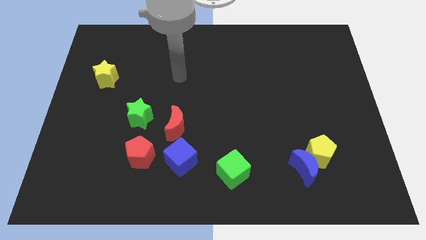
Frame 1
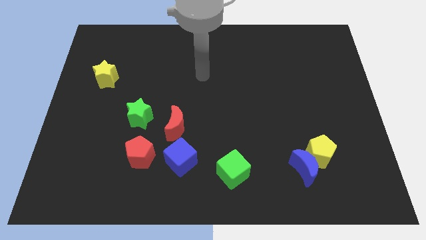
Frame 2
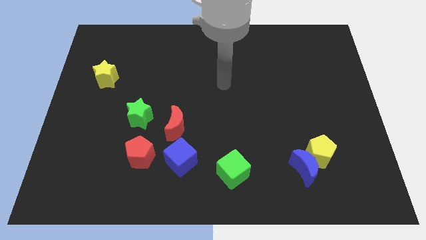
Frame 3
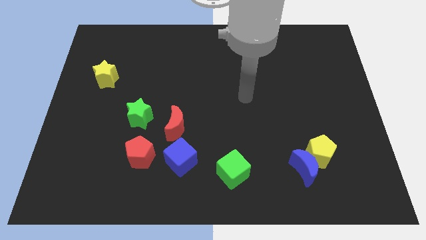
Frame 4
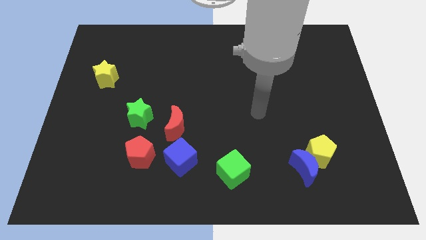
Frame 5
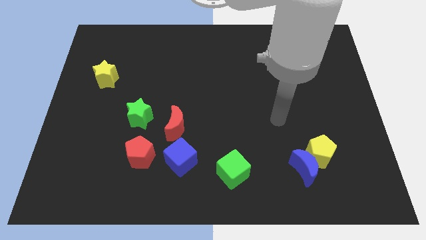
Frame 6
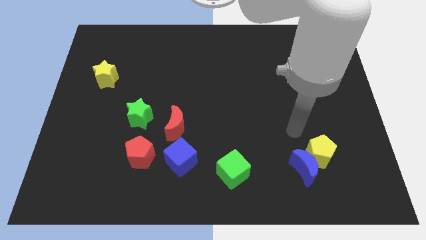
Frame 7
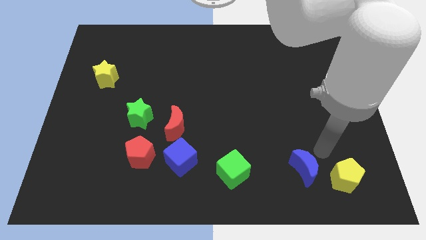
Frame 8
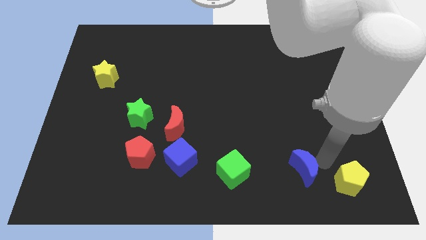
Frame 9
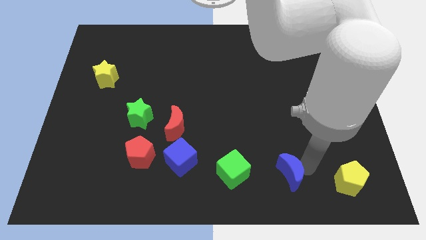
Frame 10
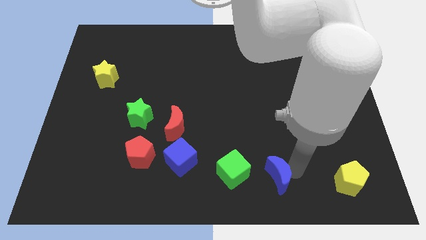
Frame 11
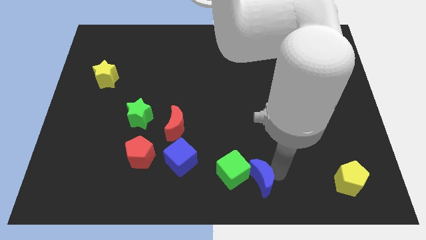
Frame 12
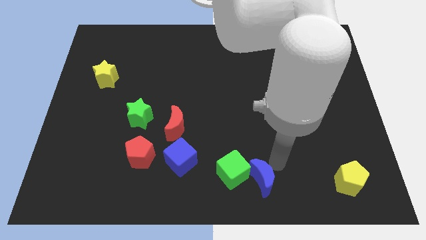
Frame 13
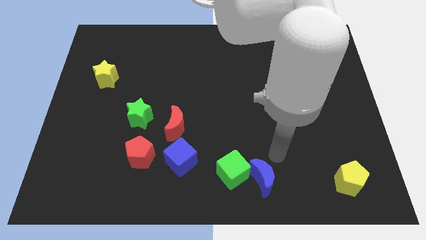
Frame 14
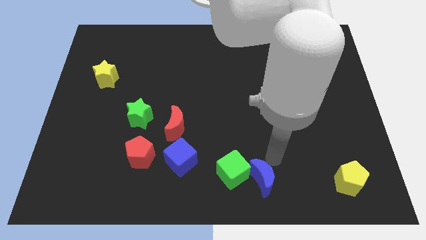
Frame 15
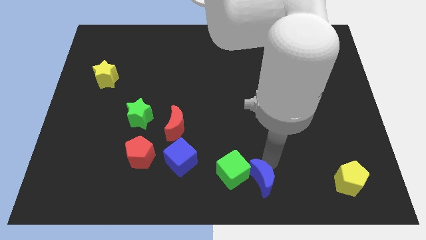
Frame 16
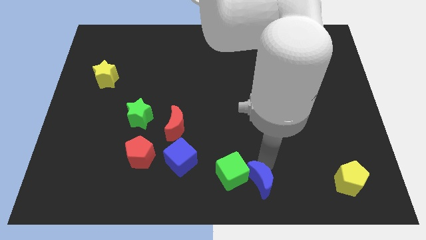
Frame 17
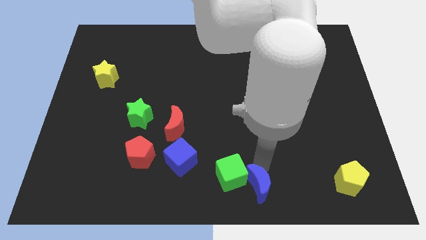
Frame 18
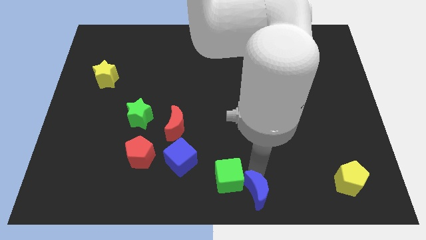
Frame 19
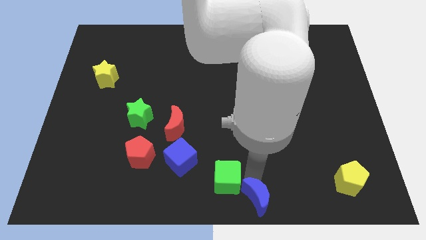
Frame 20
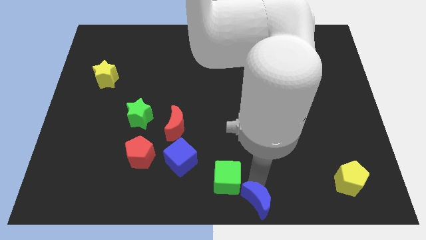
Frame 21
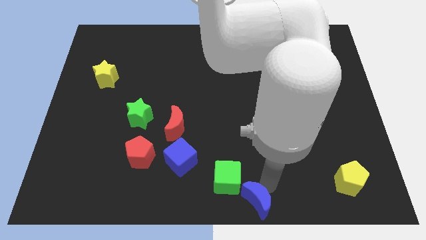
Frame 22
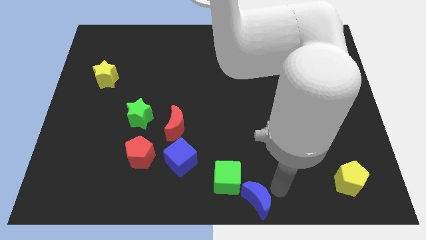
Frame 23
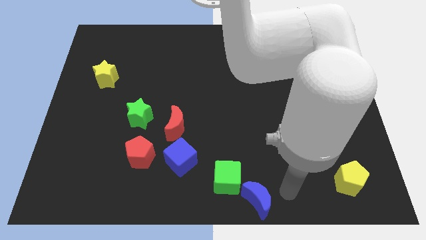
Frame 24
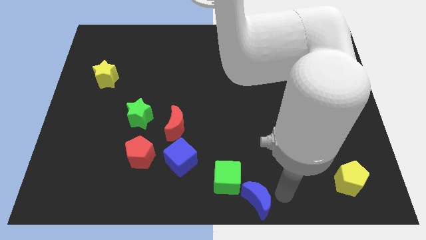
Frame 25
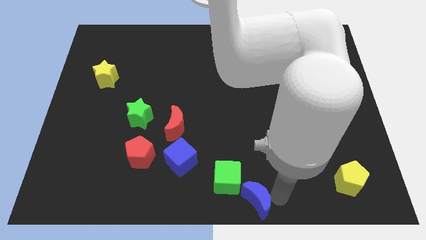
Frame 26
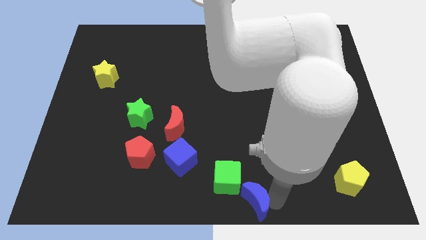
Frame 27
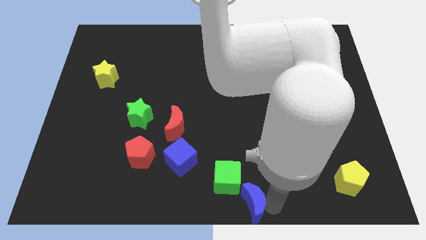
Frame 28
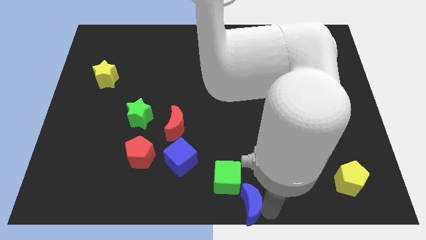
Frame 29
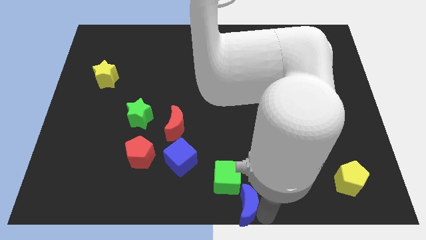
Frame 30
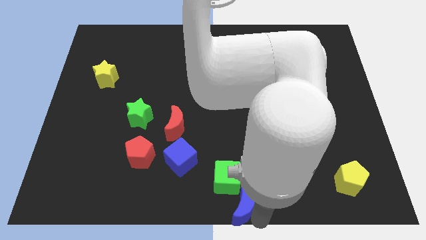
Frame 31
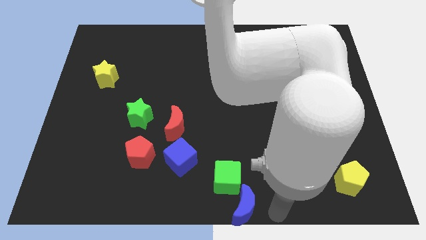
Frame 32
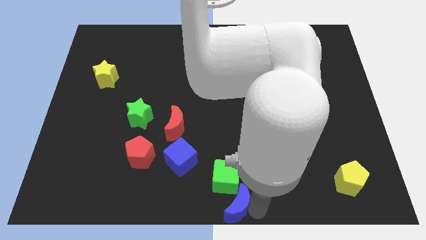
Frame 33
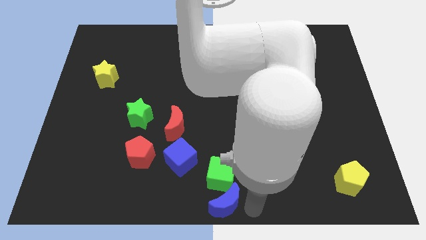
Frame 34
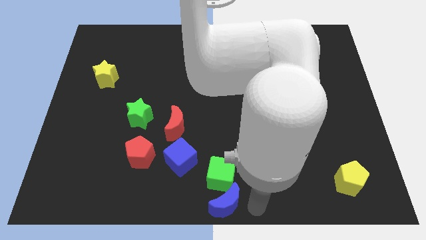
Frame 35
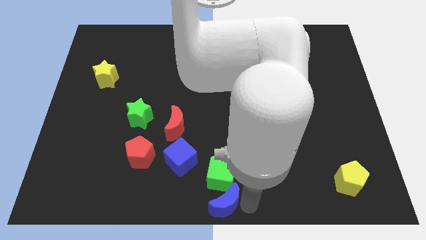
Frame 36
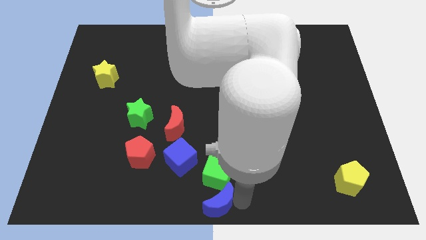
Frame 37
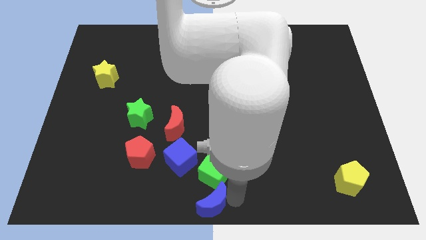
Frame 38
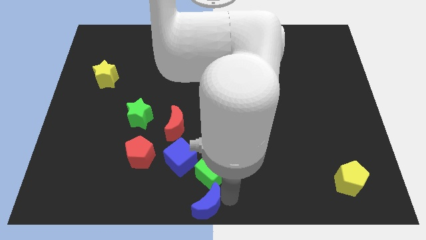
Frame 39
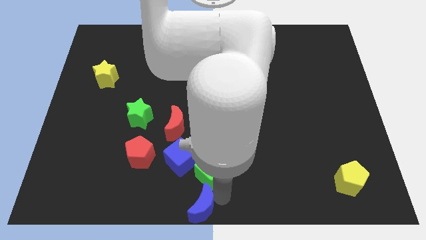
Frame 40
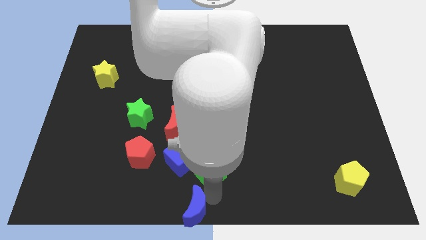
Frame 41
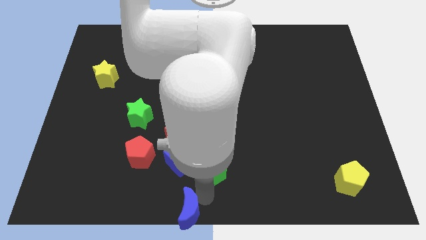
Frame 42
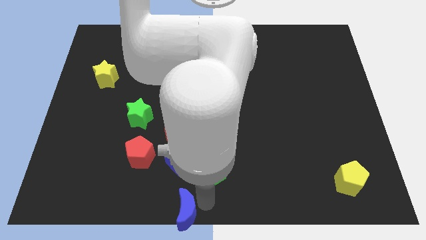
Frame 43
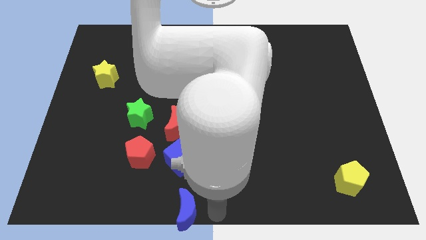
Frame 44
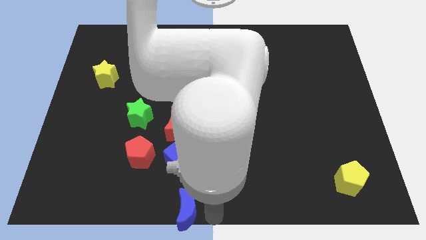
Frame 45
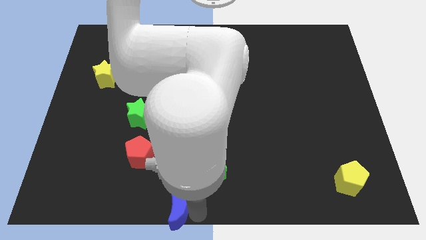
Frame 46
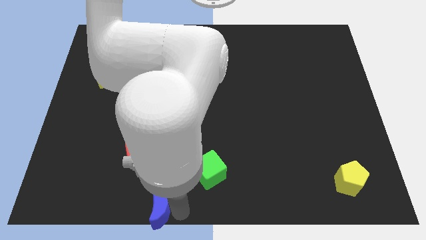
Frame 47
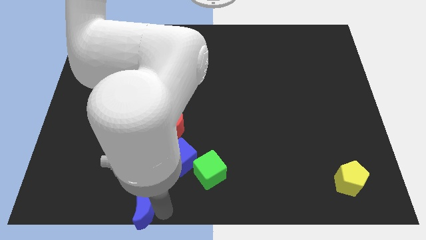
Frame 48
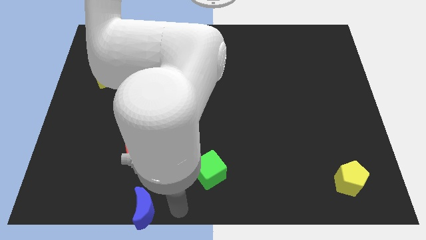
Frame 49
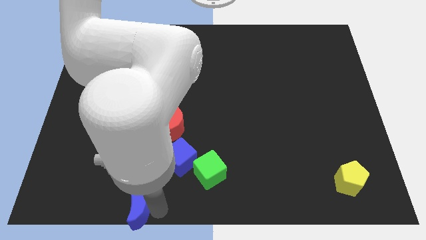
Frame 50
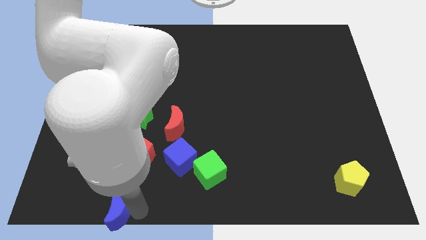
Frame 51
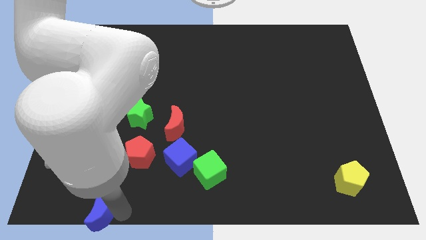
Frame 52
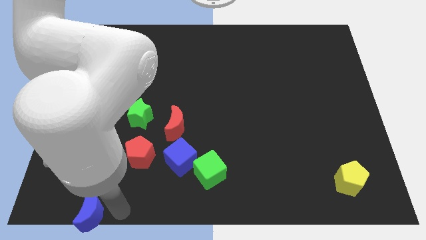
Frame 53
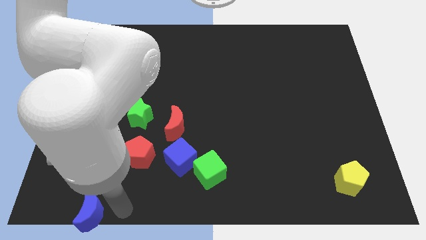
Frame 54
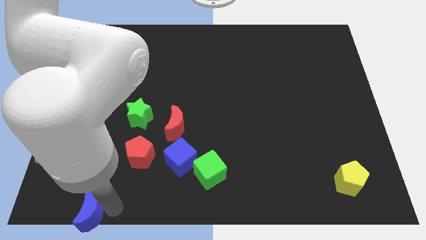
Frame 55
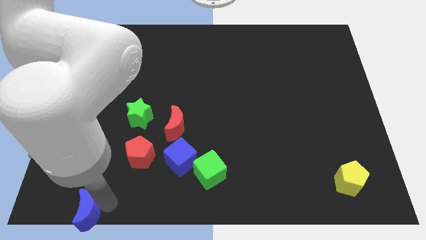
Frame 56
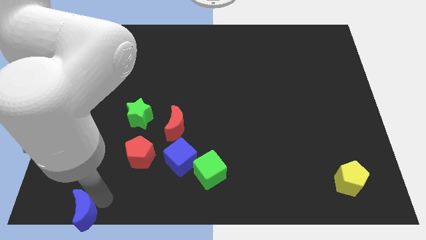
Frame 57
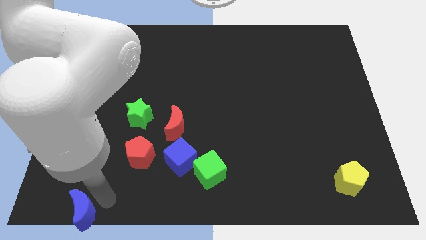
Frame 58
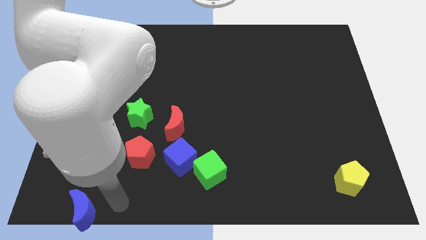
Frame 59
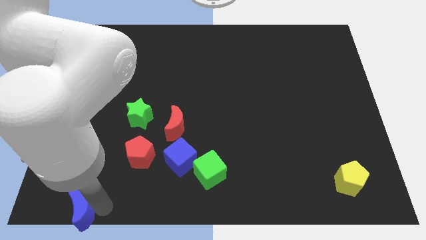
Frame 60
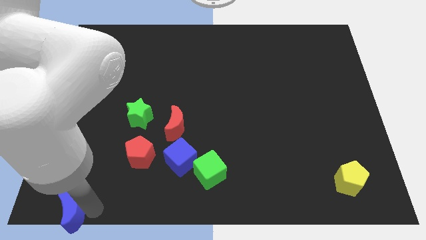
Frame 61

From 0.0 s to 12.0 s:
put the blue moon to the lower left corner
